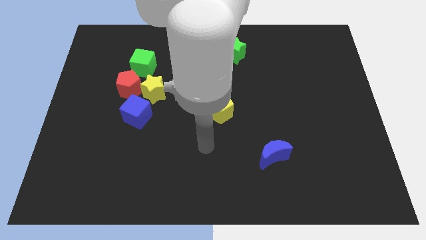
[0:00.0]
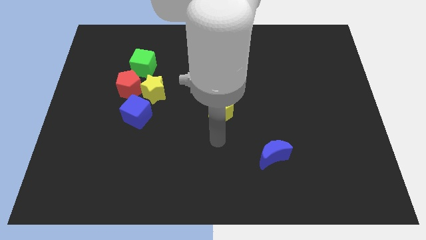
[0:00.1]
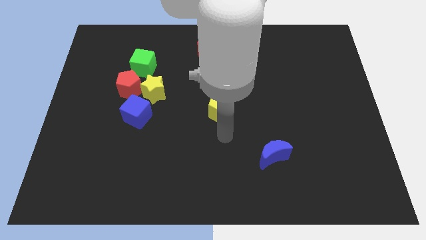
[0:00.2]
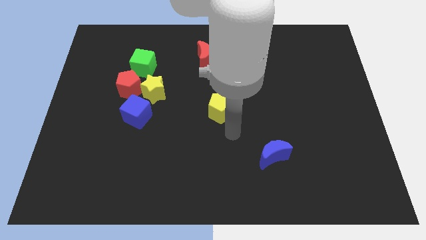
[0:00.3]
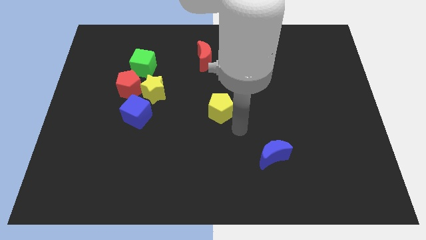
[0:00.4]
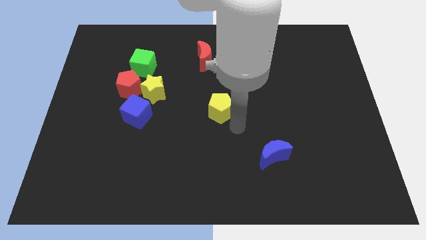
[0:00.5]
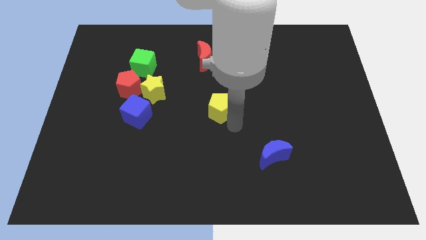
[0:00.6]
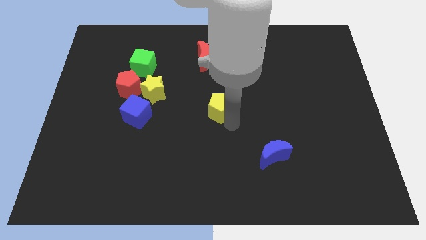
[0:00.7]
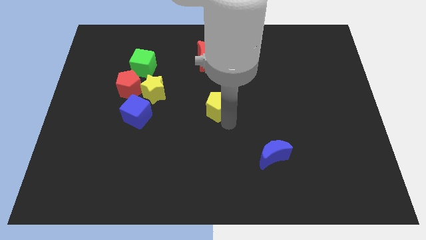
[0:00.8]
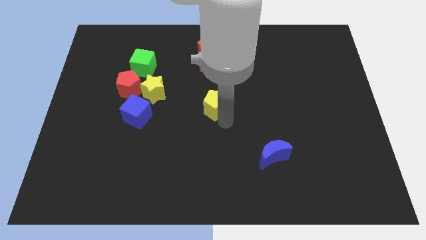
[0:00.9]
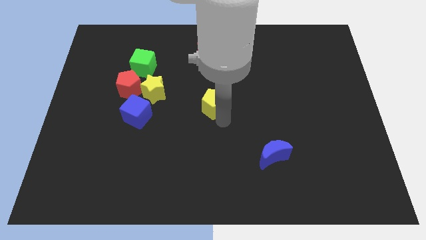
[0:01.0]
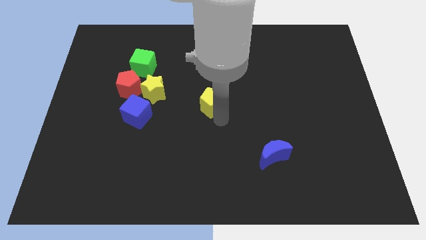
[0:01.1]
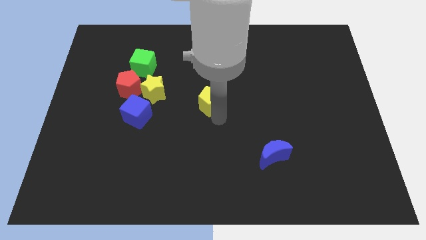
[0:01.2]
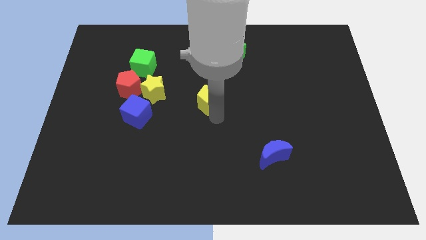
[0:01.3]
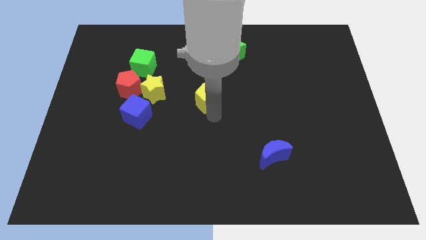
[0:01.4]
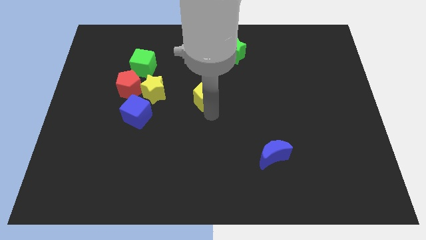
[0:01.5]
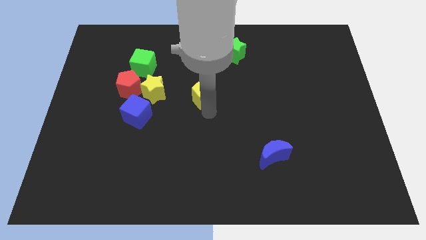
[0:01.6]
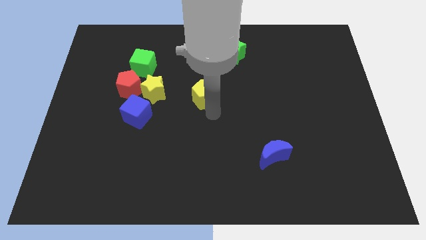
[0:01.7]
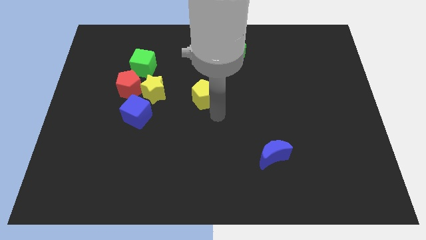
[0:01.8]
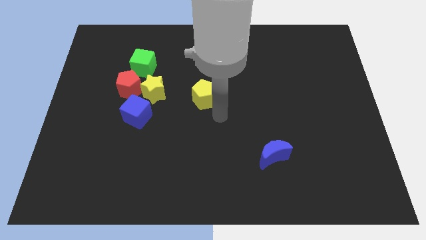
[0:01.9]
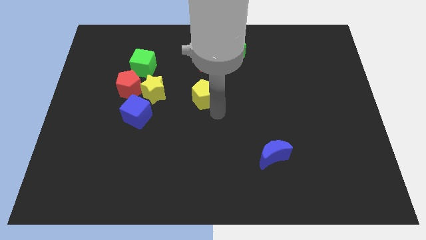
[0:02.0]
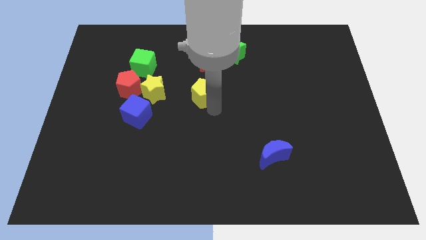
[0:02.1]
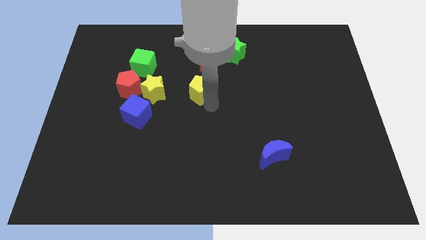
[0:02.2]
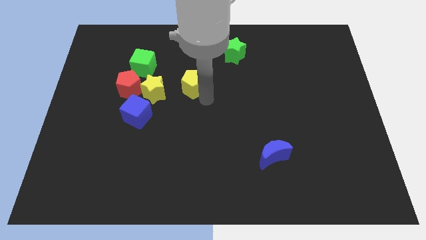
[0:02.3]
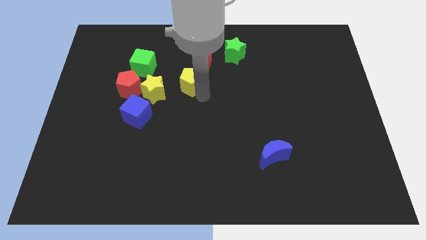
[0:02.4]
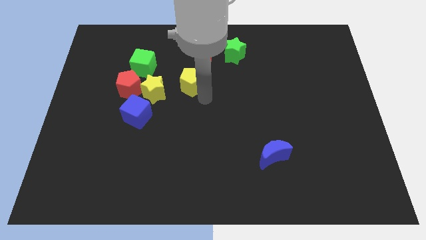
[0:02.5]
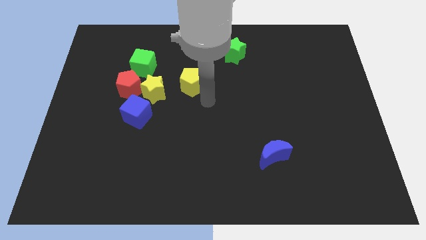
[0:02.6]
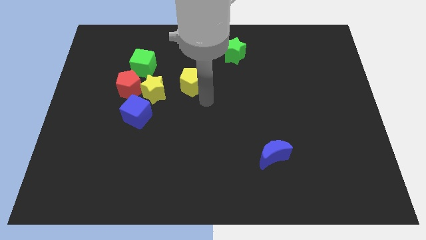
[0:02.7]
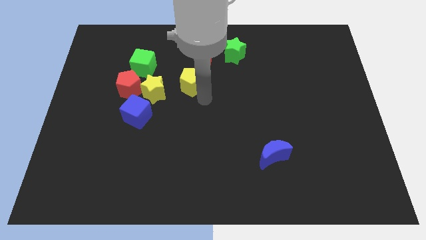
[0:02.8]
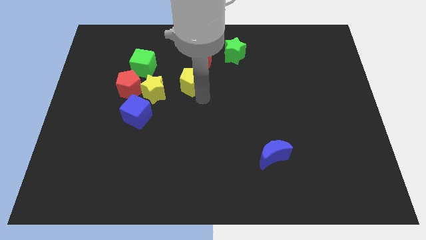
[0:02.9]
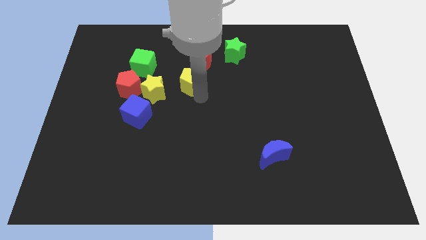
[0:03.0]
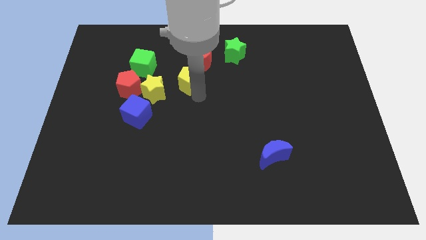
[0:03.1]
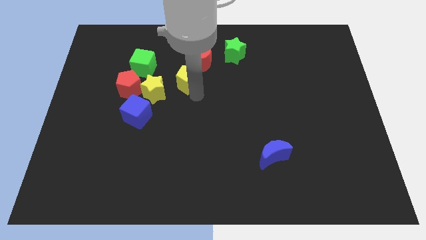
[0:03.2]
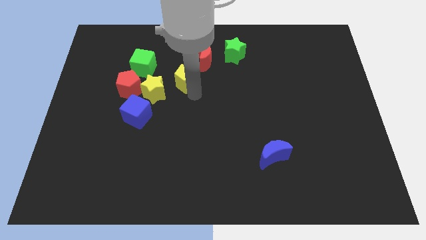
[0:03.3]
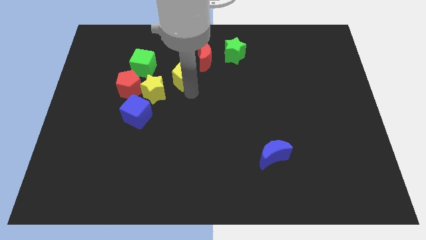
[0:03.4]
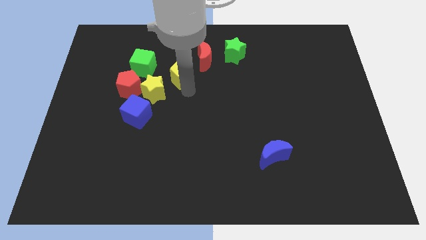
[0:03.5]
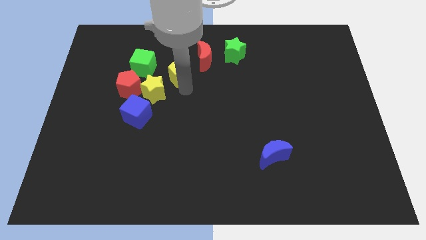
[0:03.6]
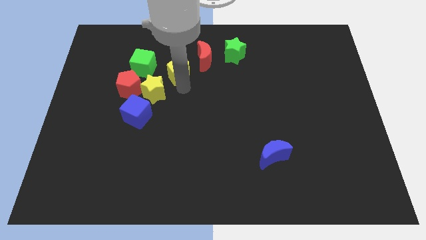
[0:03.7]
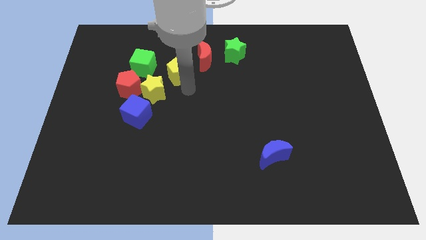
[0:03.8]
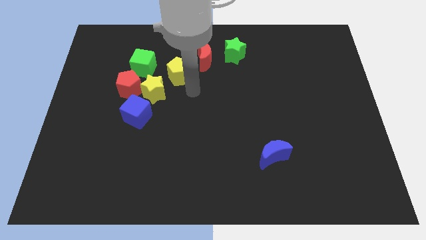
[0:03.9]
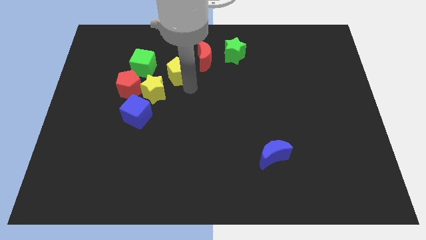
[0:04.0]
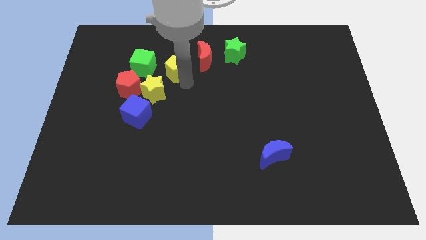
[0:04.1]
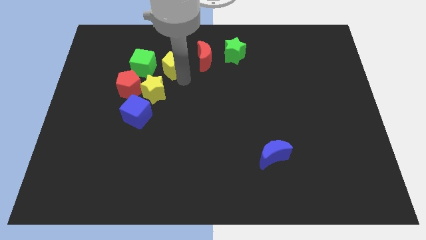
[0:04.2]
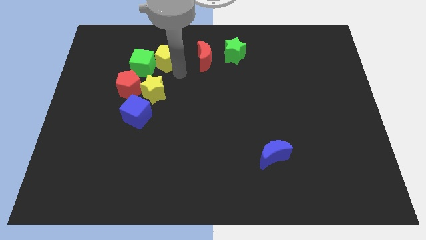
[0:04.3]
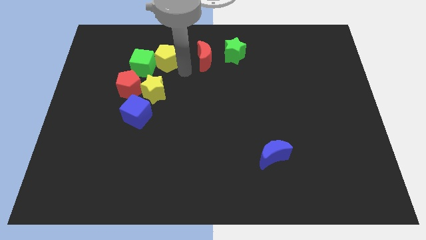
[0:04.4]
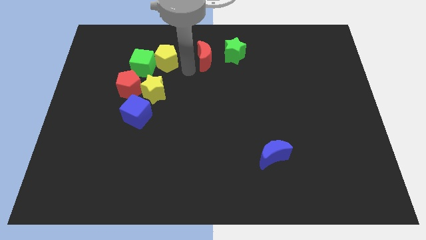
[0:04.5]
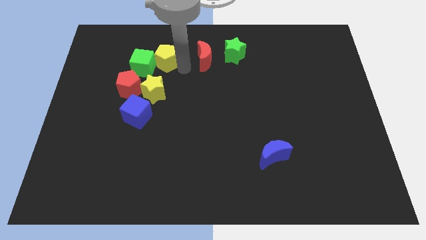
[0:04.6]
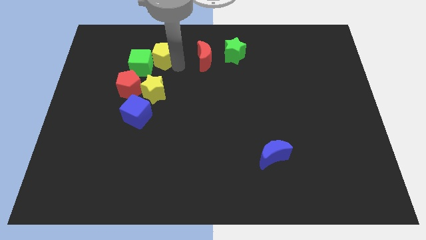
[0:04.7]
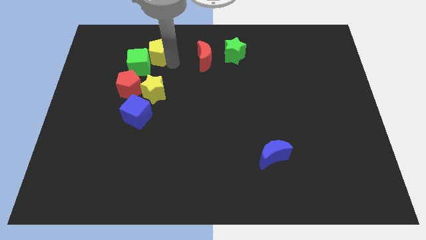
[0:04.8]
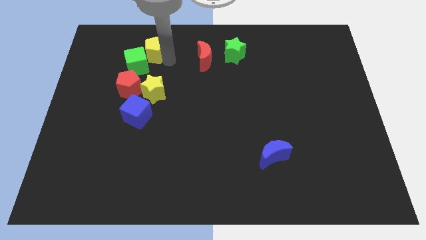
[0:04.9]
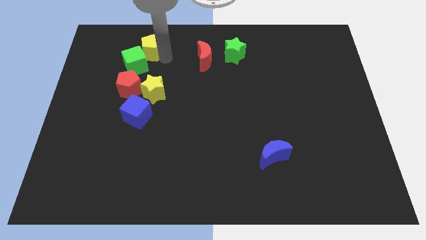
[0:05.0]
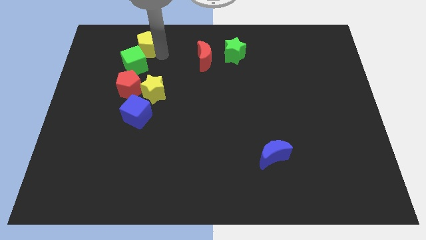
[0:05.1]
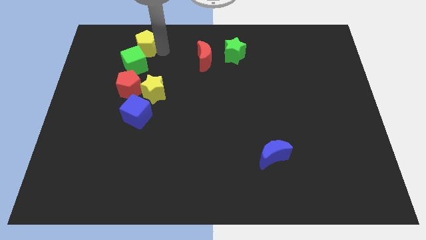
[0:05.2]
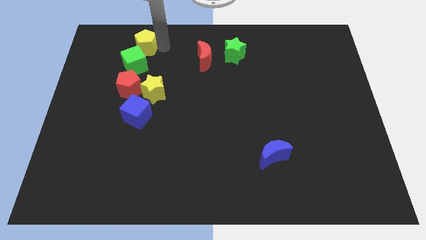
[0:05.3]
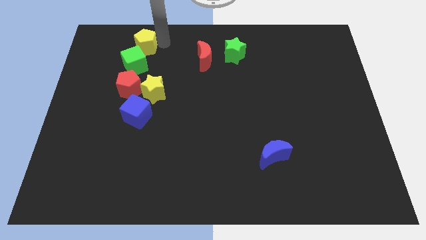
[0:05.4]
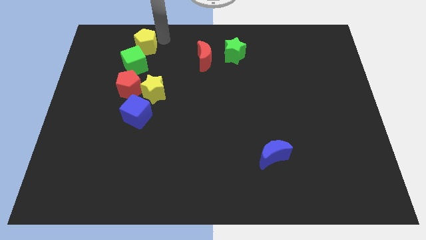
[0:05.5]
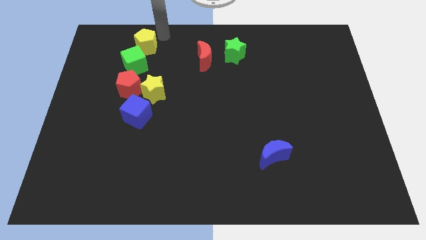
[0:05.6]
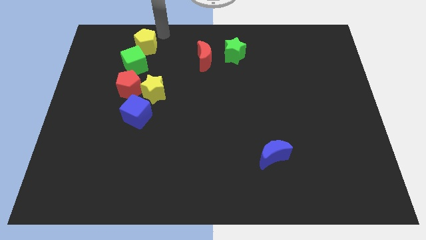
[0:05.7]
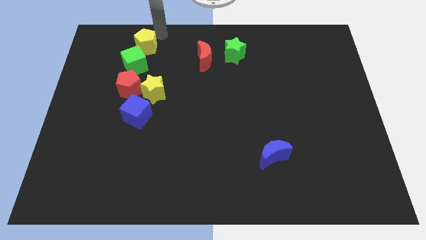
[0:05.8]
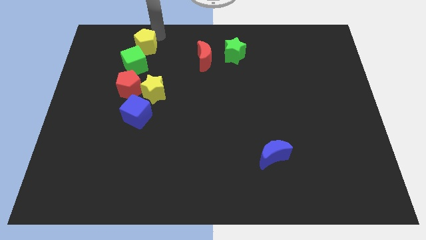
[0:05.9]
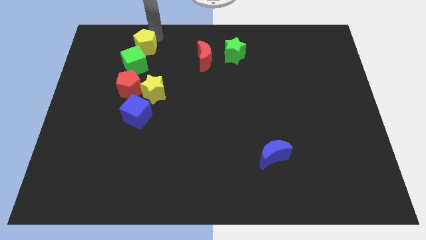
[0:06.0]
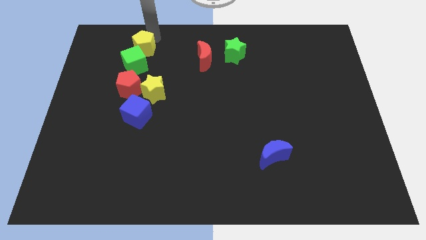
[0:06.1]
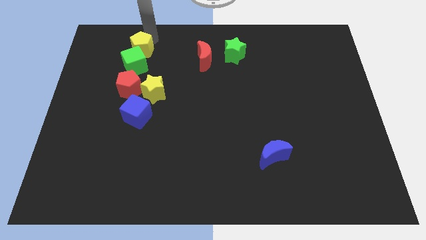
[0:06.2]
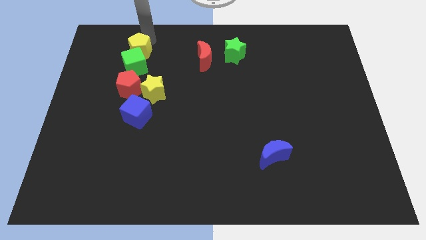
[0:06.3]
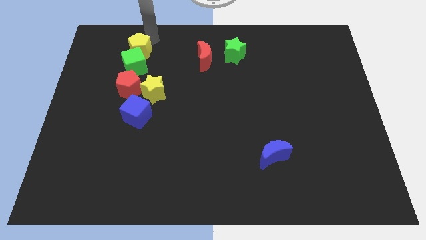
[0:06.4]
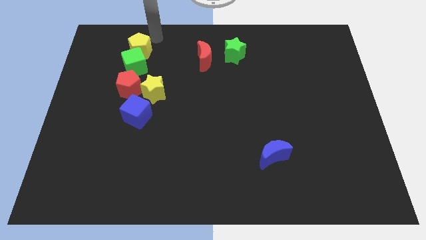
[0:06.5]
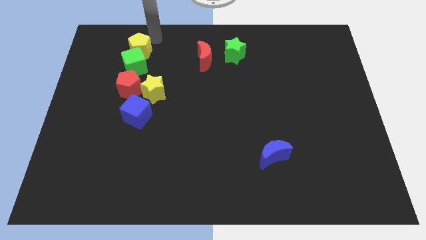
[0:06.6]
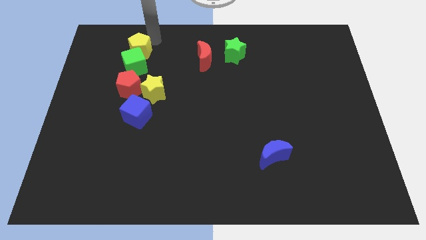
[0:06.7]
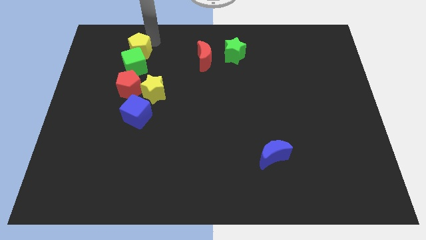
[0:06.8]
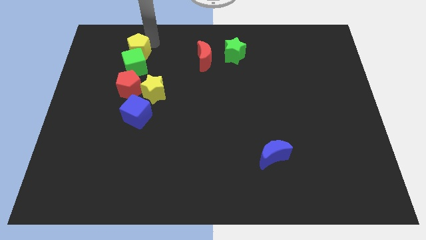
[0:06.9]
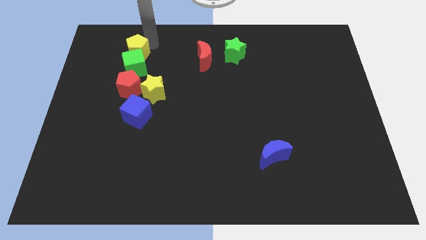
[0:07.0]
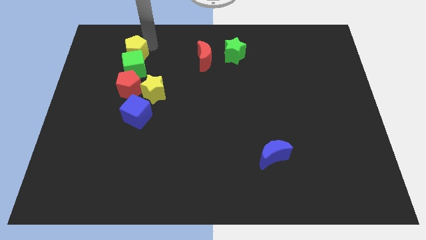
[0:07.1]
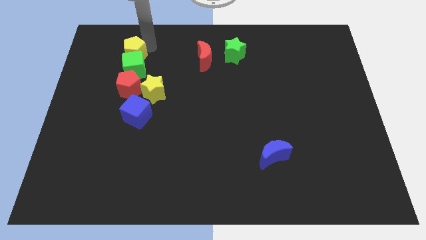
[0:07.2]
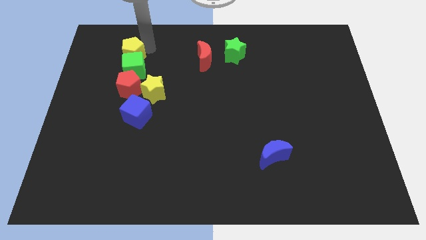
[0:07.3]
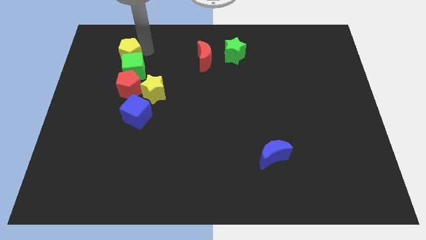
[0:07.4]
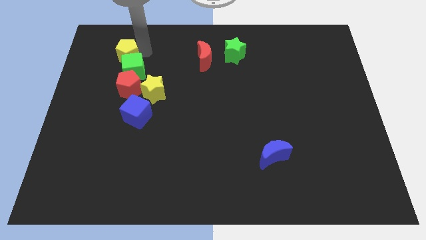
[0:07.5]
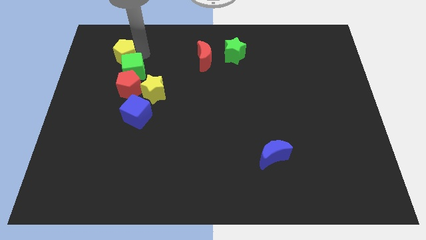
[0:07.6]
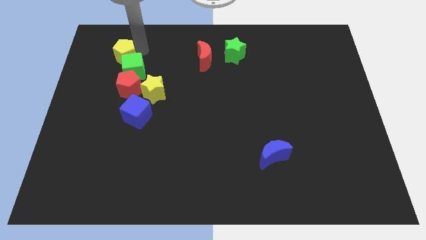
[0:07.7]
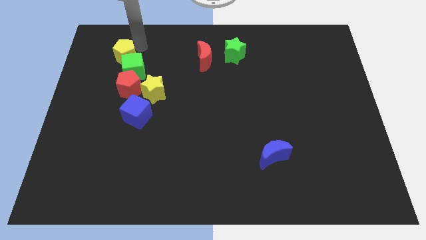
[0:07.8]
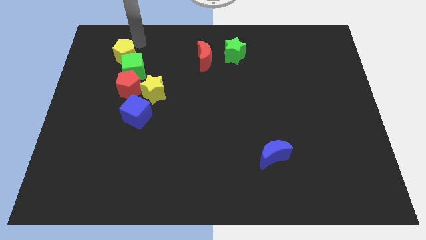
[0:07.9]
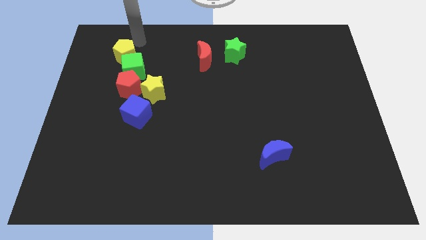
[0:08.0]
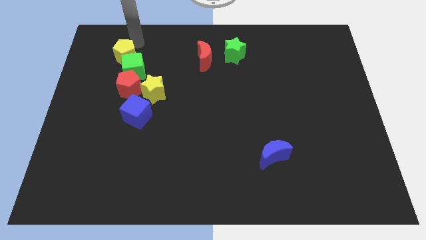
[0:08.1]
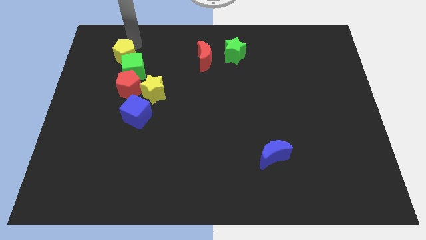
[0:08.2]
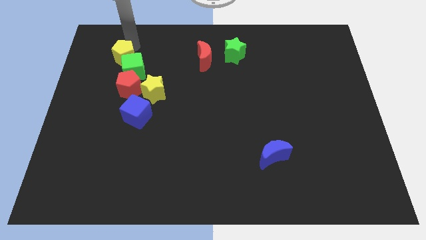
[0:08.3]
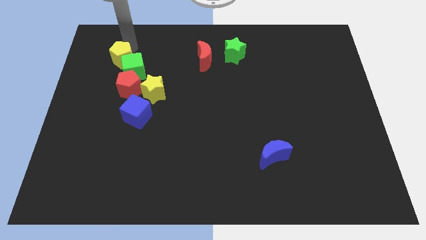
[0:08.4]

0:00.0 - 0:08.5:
put the yellow pentagon diagonally up and to the left of the red pentagon
